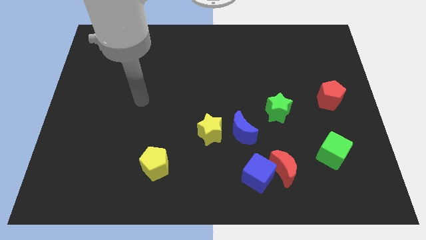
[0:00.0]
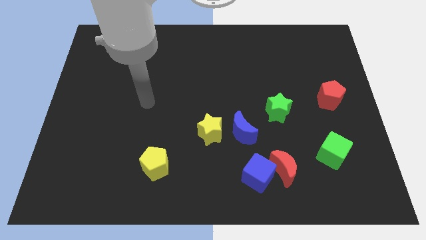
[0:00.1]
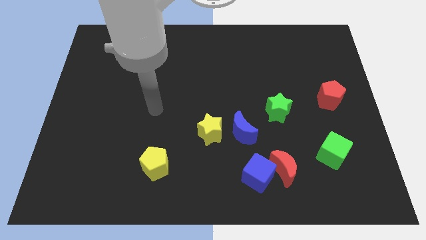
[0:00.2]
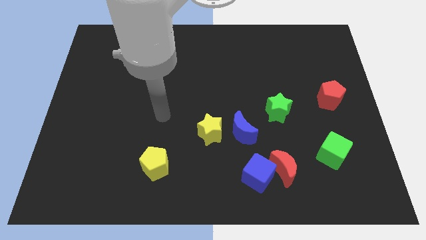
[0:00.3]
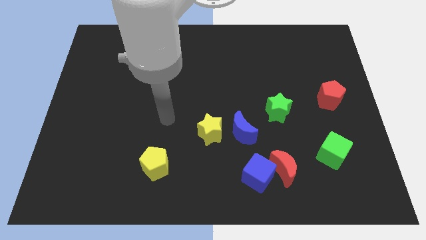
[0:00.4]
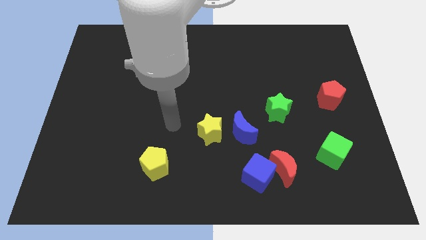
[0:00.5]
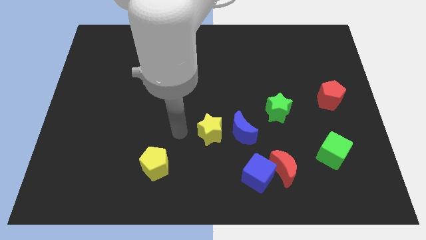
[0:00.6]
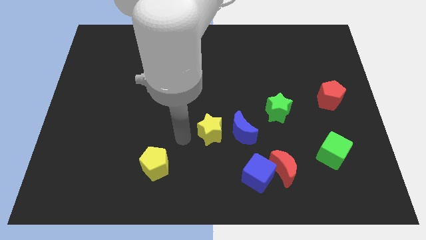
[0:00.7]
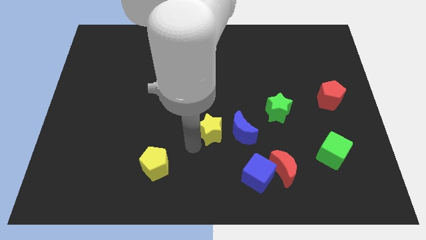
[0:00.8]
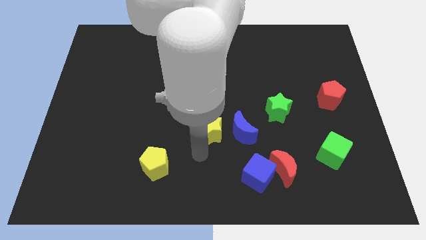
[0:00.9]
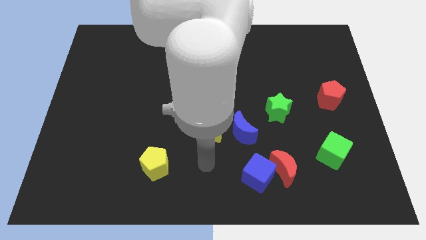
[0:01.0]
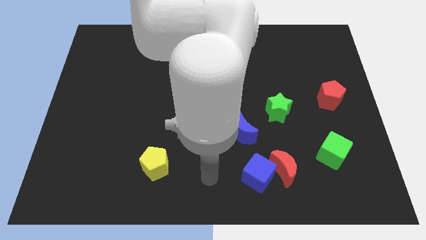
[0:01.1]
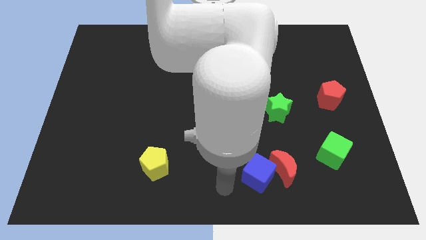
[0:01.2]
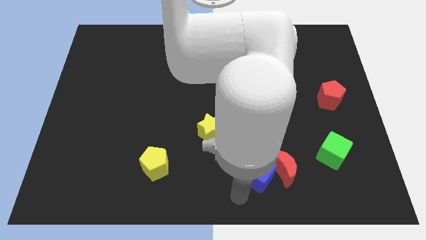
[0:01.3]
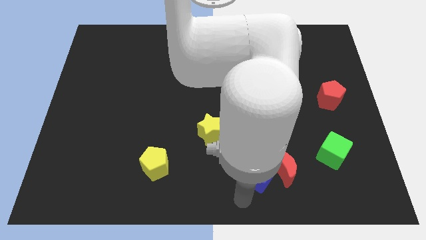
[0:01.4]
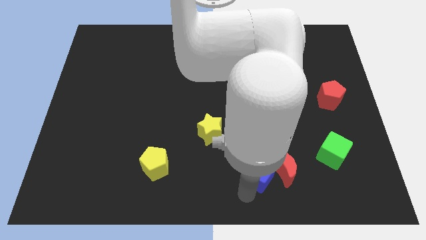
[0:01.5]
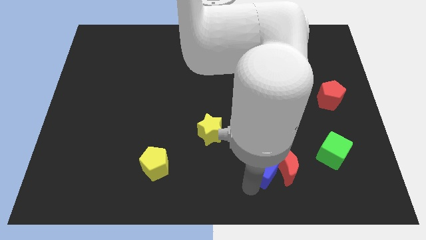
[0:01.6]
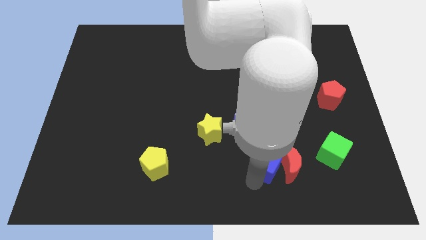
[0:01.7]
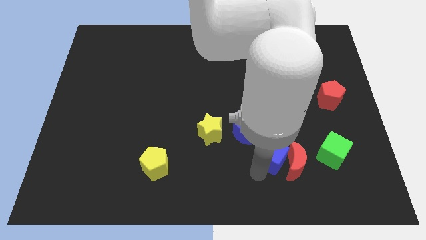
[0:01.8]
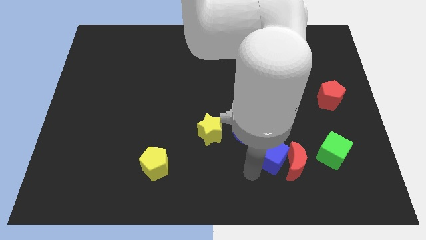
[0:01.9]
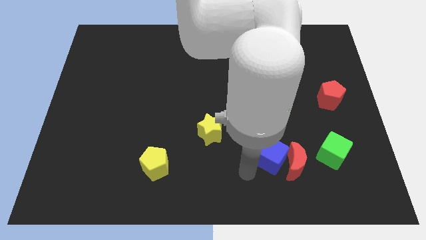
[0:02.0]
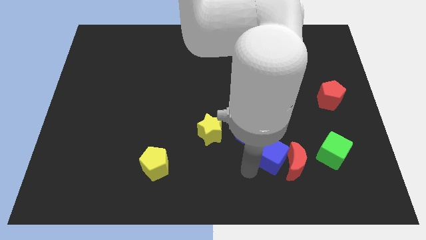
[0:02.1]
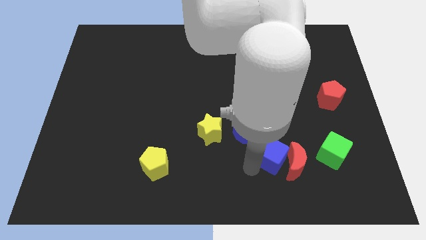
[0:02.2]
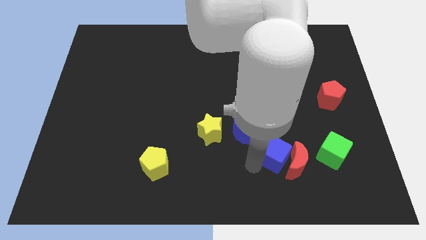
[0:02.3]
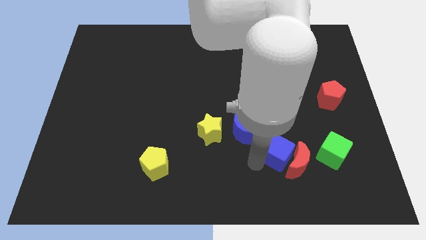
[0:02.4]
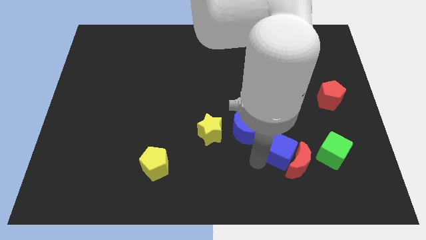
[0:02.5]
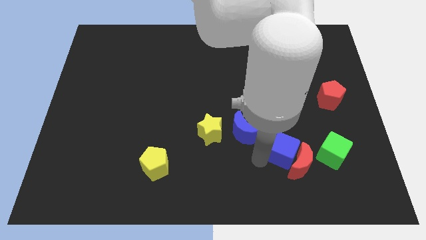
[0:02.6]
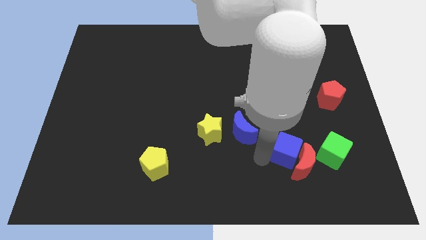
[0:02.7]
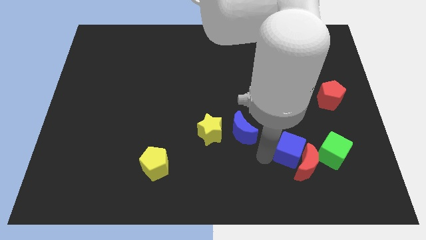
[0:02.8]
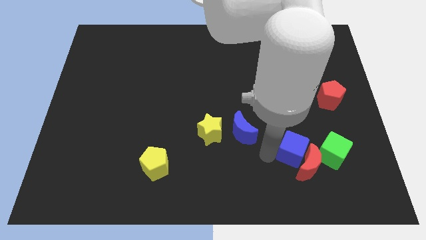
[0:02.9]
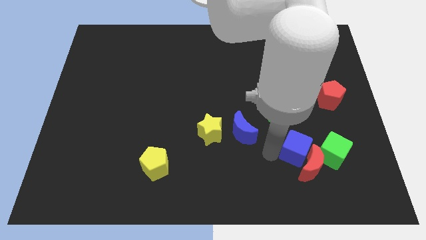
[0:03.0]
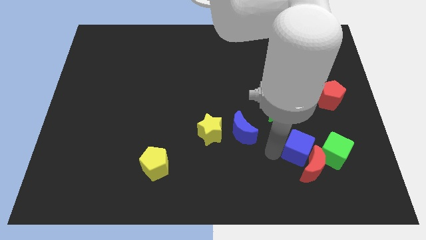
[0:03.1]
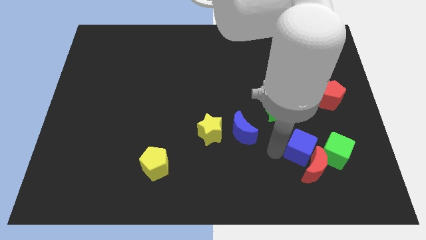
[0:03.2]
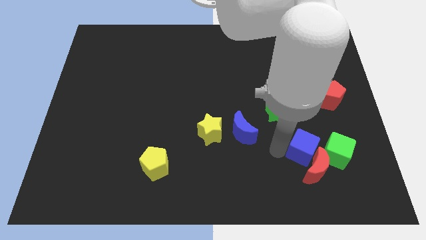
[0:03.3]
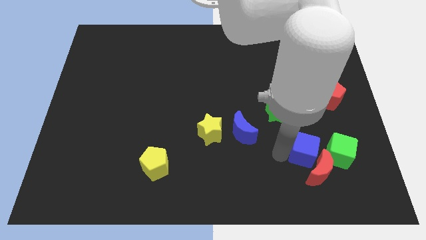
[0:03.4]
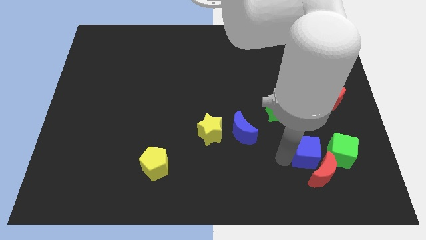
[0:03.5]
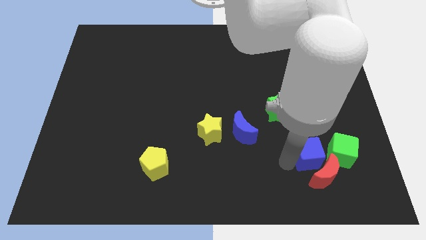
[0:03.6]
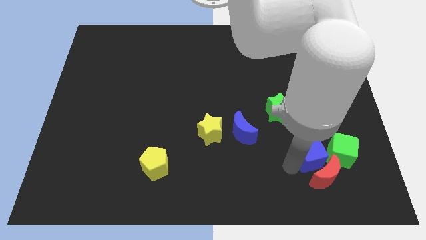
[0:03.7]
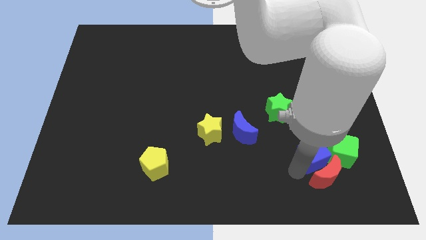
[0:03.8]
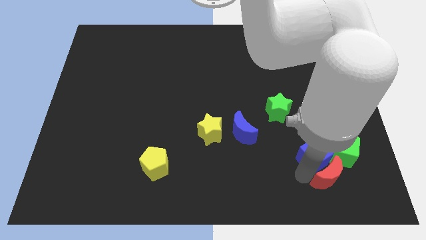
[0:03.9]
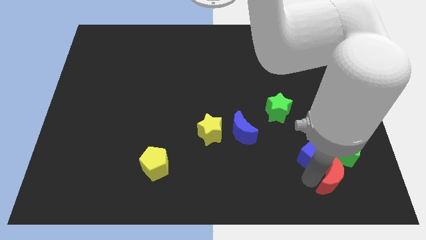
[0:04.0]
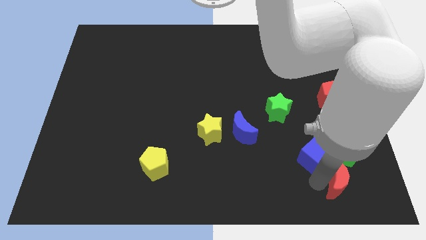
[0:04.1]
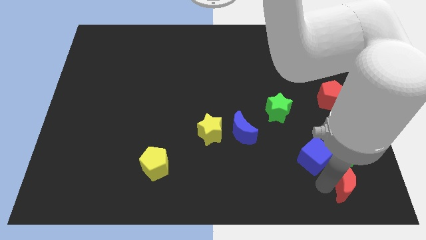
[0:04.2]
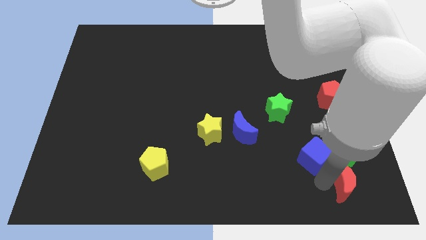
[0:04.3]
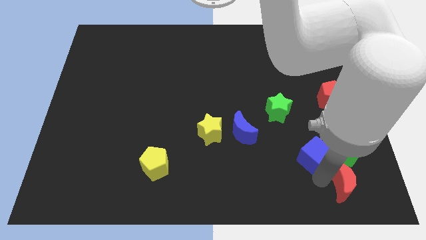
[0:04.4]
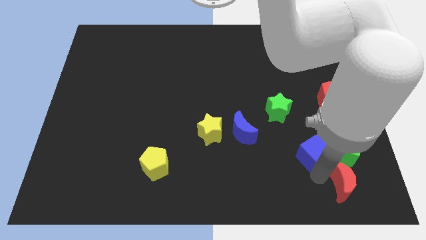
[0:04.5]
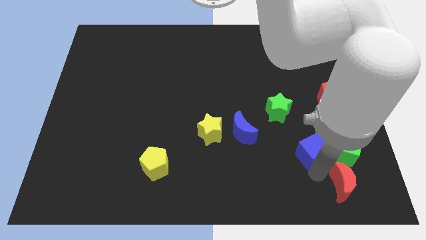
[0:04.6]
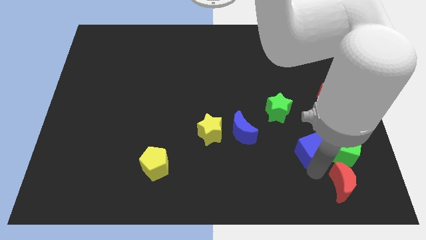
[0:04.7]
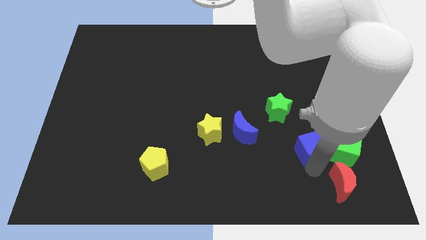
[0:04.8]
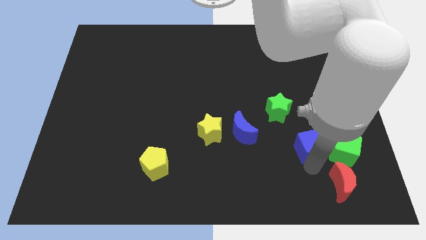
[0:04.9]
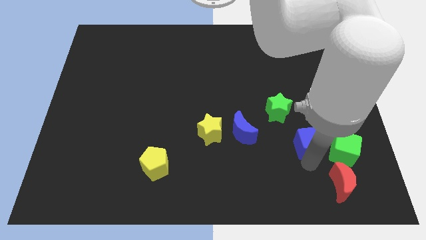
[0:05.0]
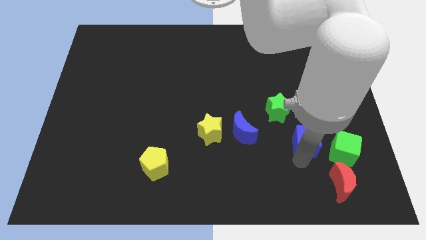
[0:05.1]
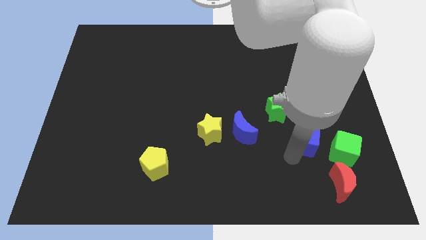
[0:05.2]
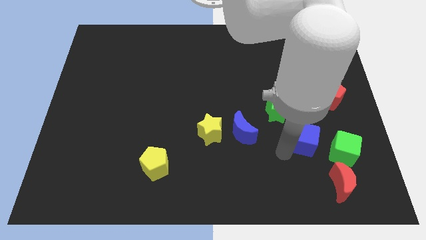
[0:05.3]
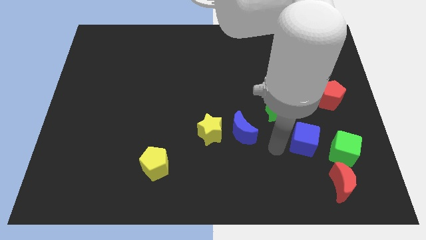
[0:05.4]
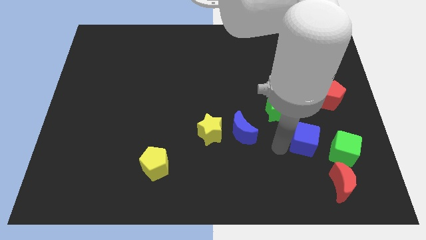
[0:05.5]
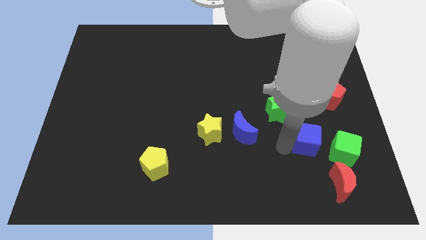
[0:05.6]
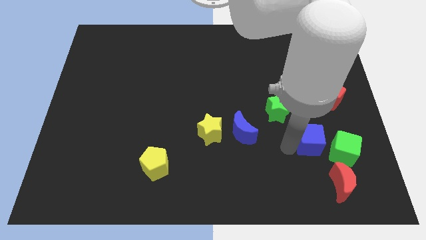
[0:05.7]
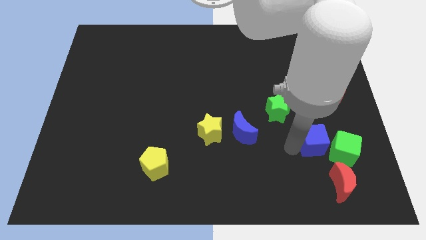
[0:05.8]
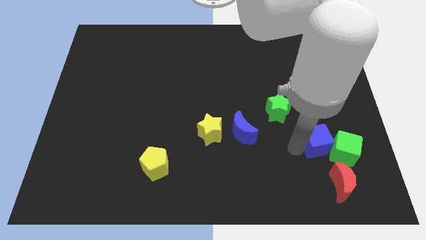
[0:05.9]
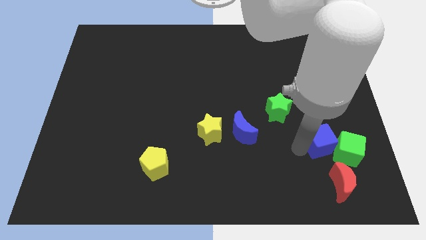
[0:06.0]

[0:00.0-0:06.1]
put the blue cube to the bottom of the red pentagon

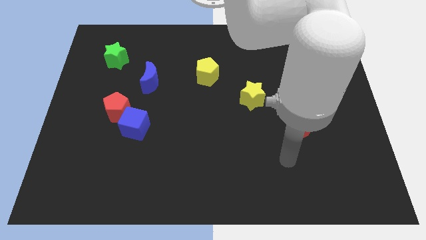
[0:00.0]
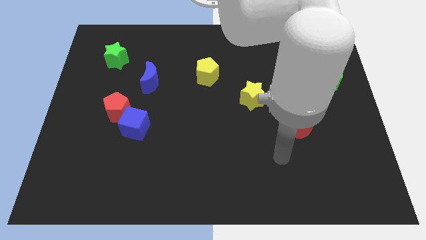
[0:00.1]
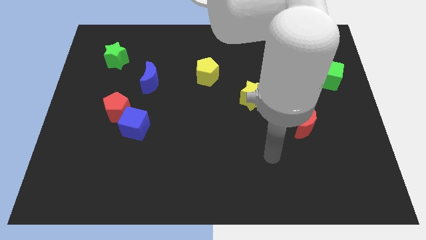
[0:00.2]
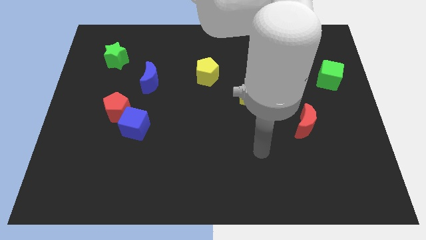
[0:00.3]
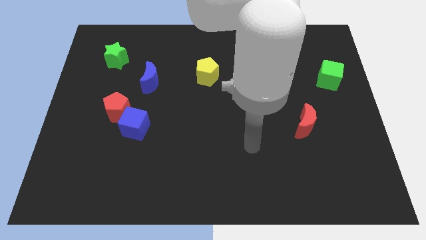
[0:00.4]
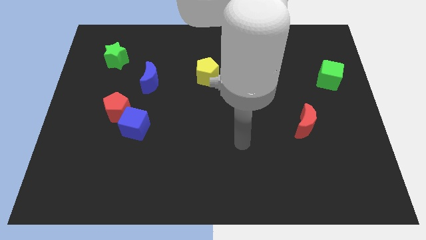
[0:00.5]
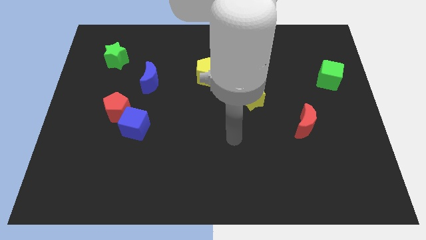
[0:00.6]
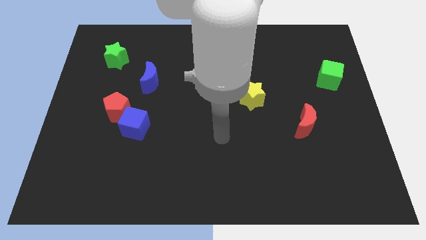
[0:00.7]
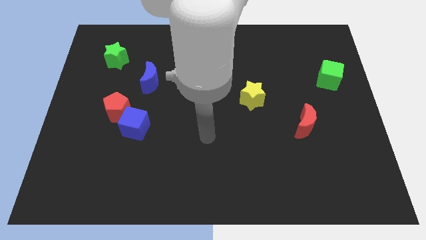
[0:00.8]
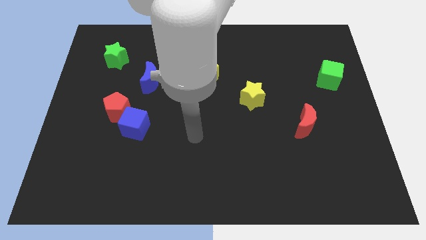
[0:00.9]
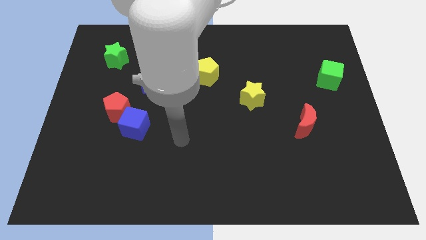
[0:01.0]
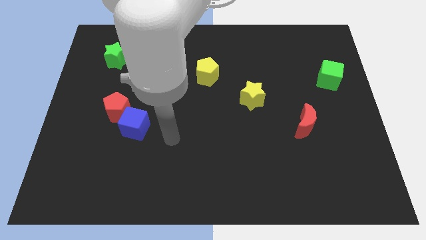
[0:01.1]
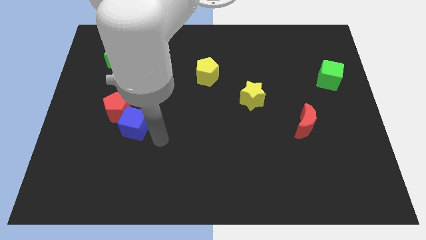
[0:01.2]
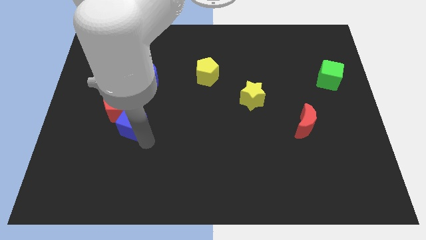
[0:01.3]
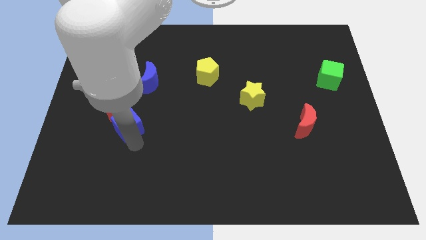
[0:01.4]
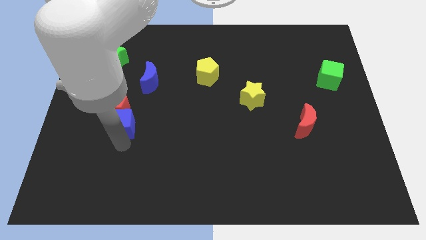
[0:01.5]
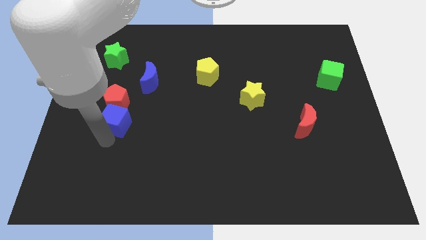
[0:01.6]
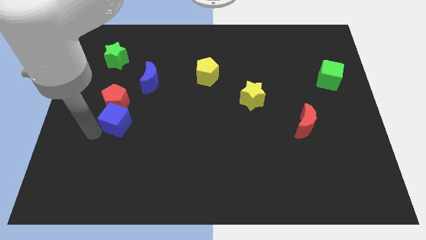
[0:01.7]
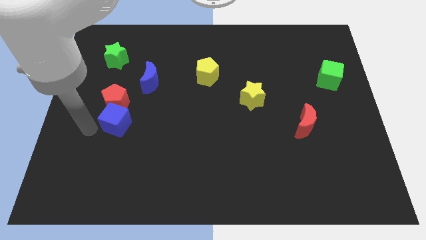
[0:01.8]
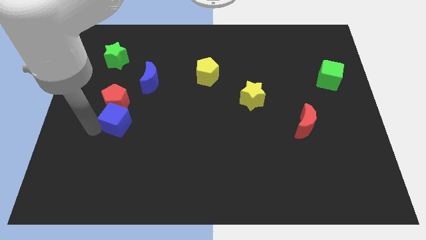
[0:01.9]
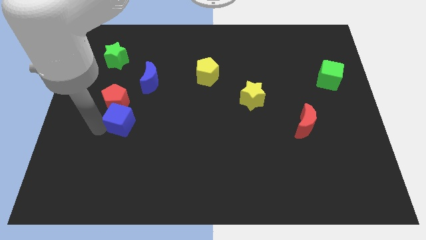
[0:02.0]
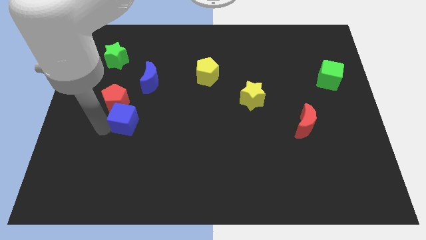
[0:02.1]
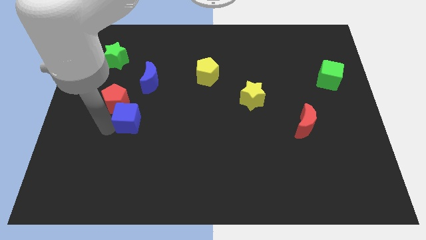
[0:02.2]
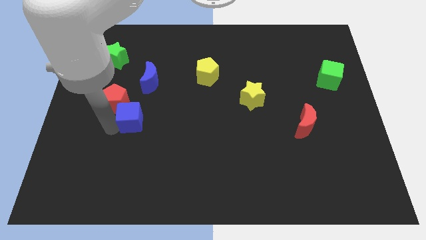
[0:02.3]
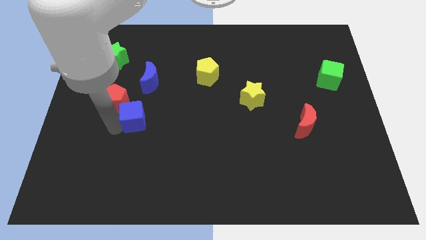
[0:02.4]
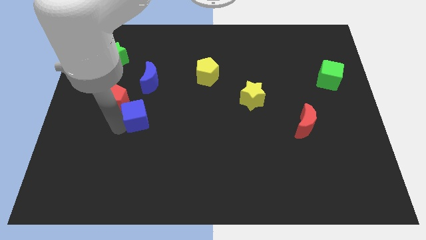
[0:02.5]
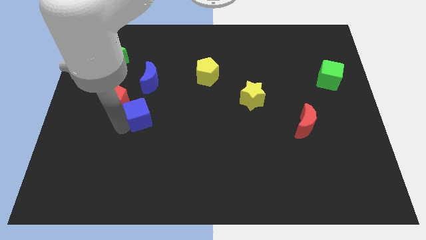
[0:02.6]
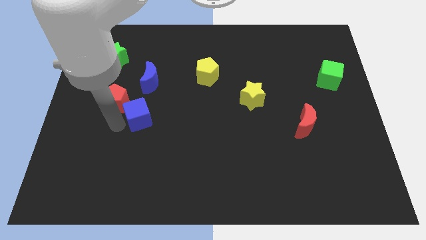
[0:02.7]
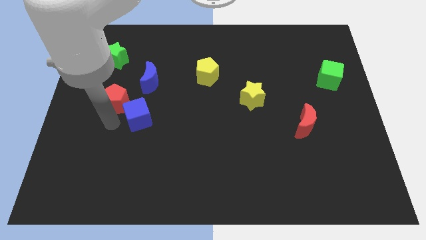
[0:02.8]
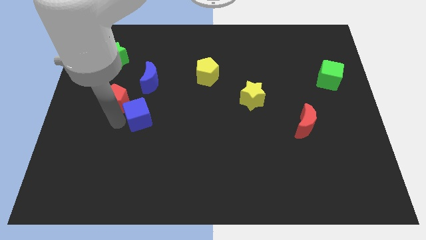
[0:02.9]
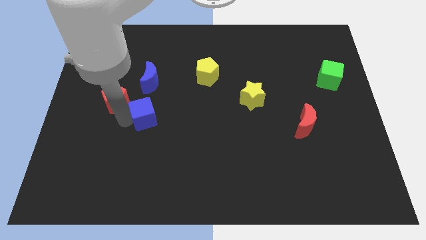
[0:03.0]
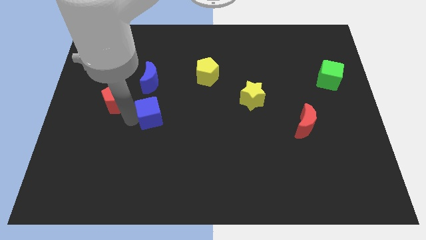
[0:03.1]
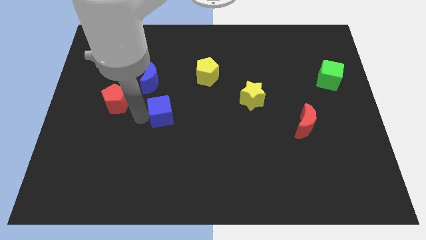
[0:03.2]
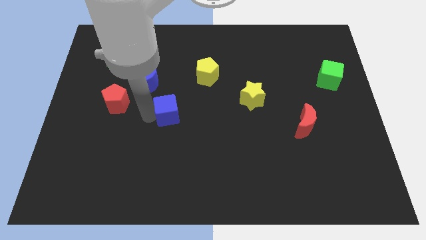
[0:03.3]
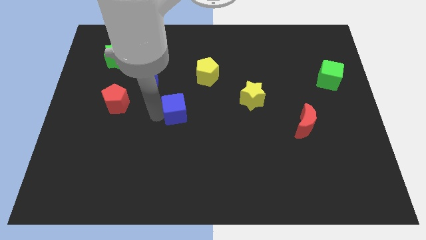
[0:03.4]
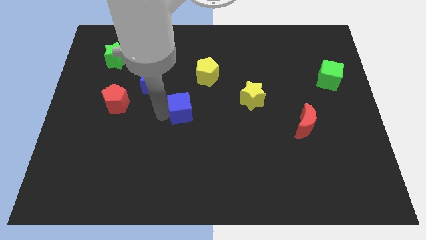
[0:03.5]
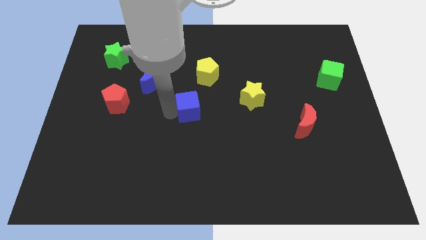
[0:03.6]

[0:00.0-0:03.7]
push the blue cube to the bottom side of the yellow pentagon
